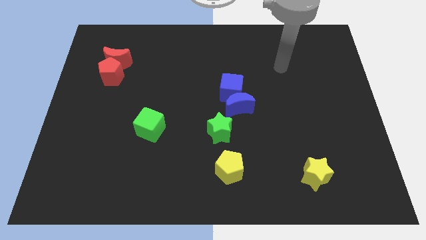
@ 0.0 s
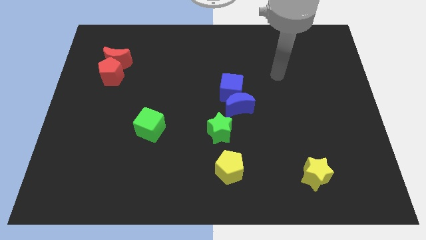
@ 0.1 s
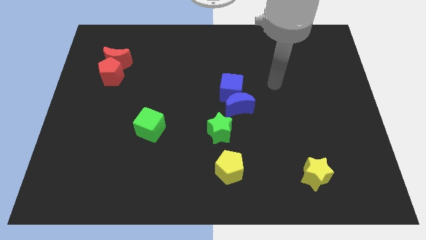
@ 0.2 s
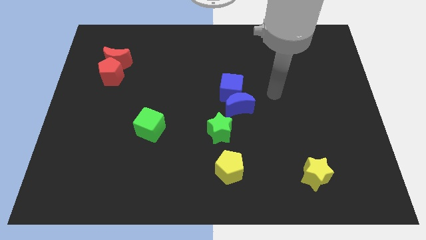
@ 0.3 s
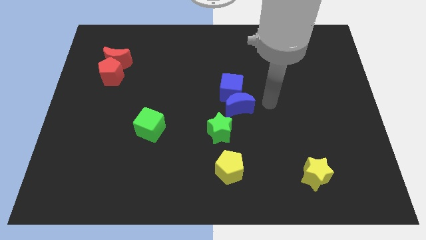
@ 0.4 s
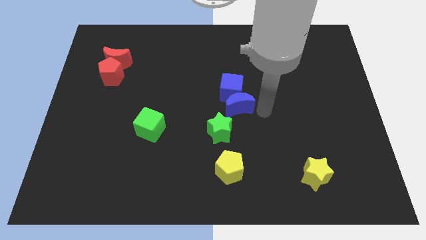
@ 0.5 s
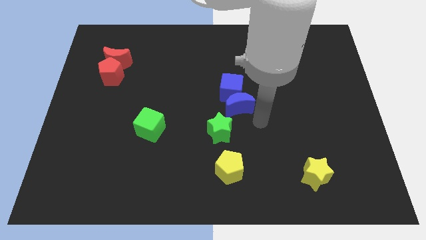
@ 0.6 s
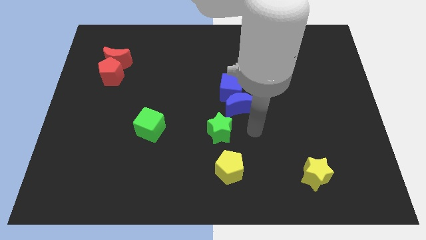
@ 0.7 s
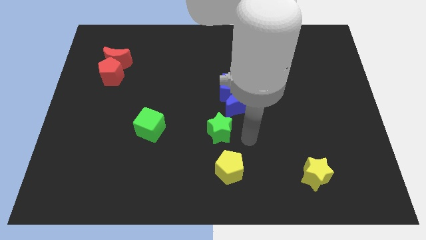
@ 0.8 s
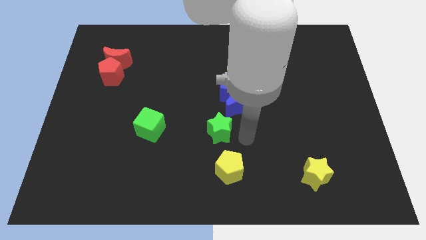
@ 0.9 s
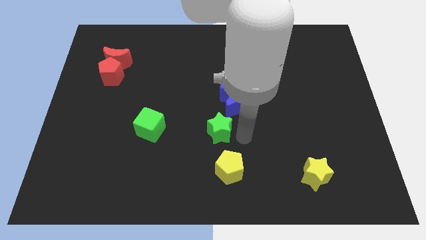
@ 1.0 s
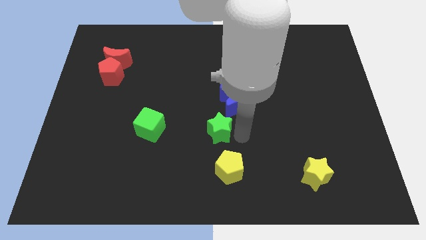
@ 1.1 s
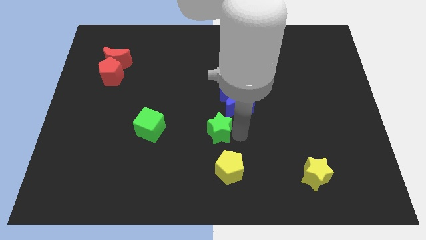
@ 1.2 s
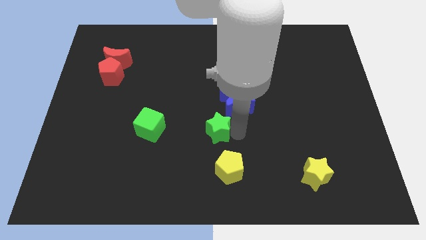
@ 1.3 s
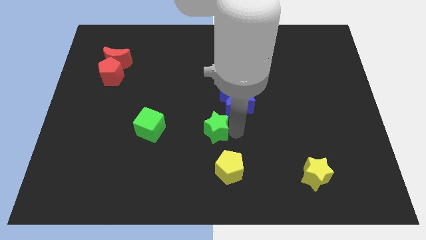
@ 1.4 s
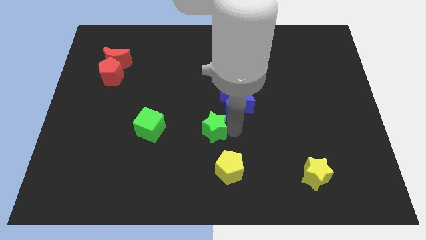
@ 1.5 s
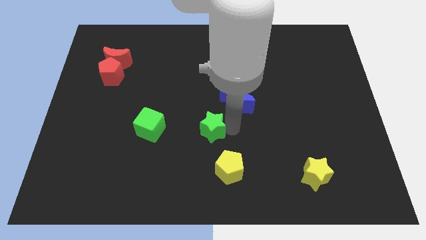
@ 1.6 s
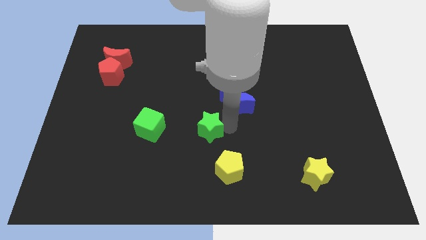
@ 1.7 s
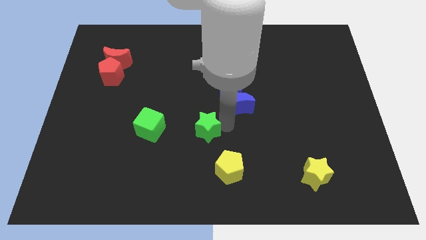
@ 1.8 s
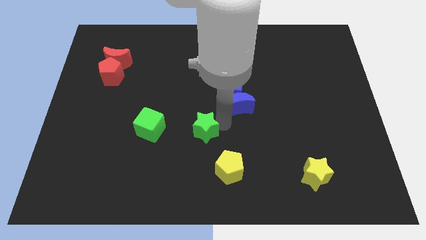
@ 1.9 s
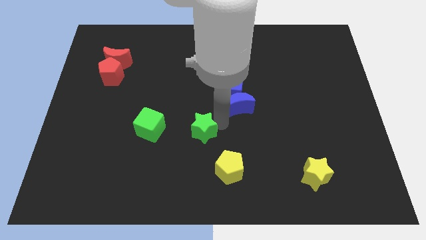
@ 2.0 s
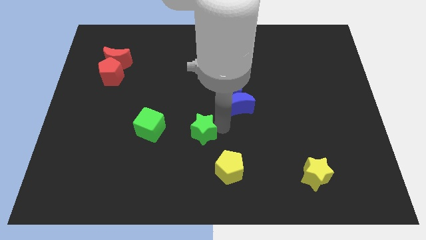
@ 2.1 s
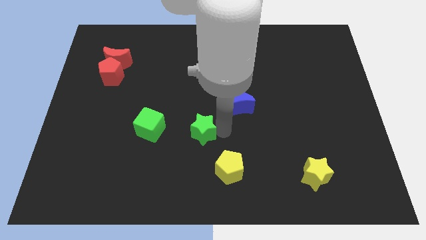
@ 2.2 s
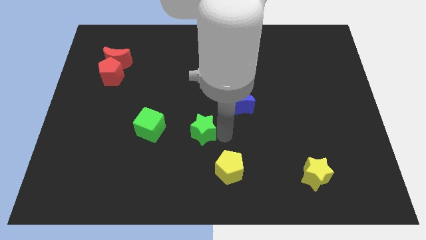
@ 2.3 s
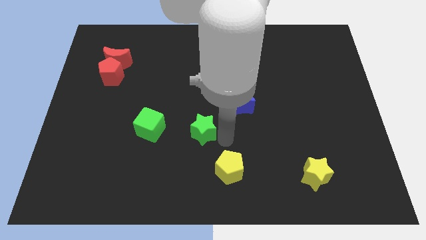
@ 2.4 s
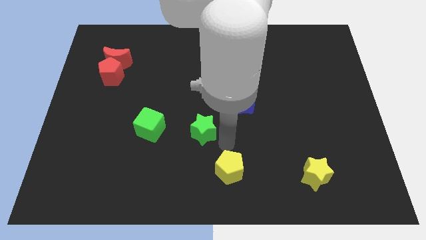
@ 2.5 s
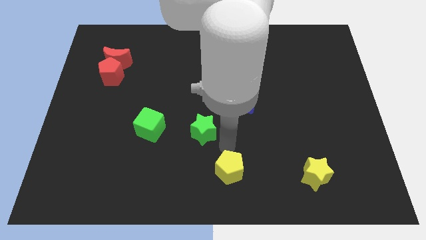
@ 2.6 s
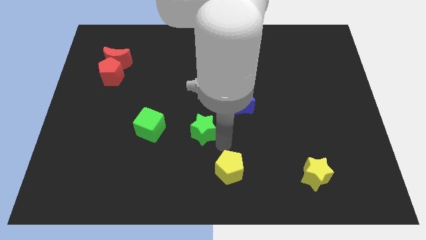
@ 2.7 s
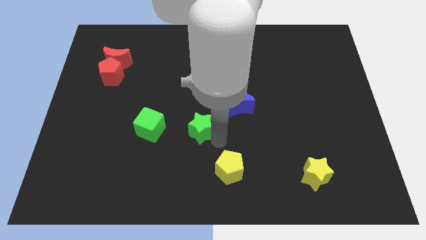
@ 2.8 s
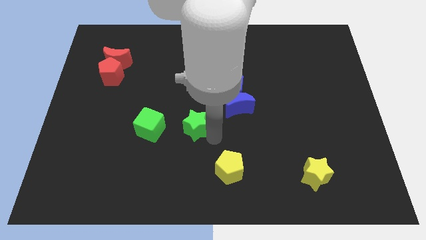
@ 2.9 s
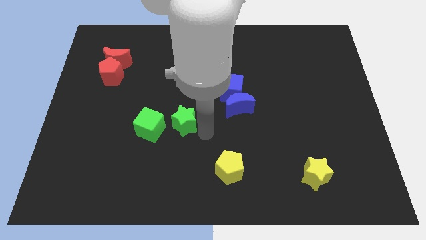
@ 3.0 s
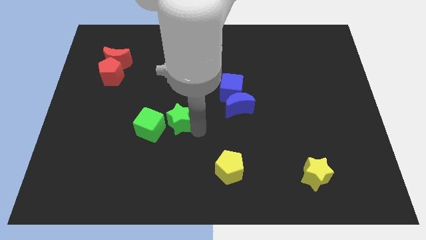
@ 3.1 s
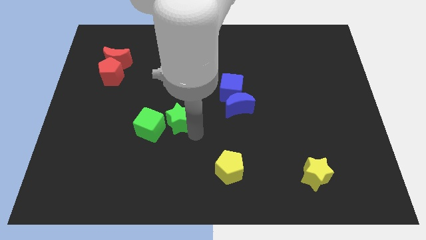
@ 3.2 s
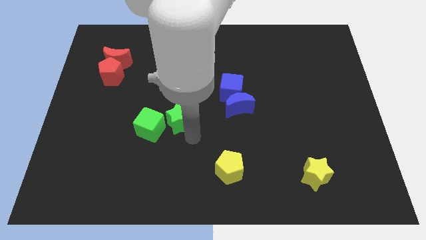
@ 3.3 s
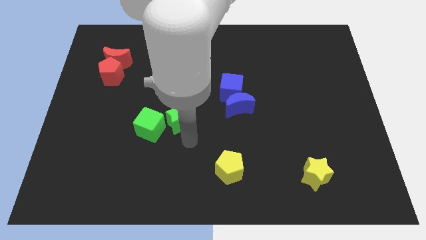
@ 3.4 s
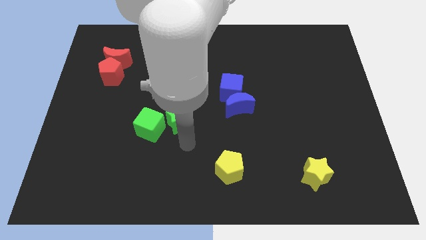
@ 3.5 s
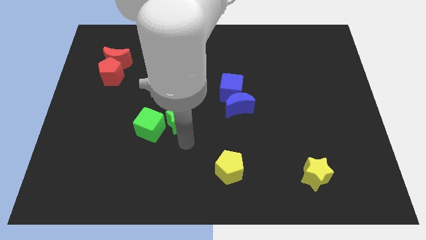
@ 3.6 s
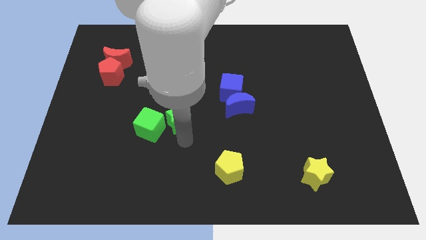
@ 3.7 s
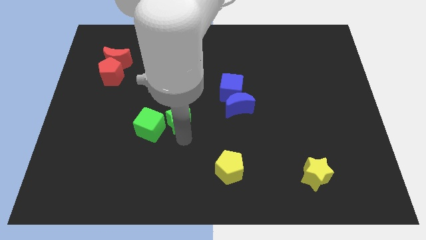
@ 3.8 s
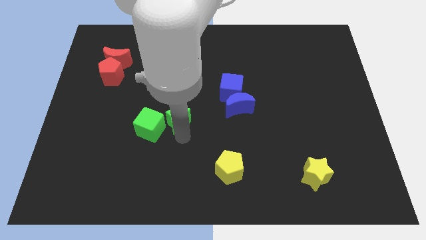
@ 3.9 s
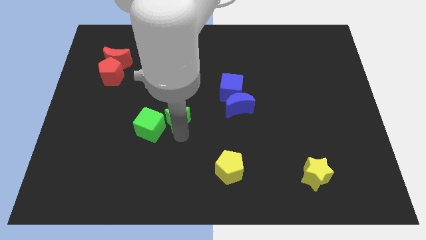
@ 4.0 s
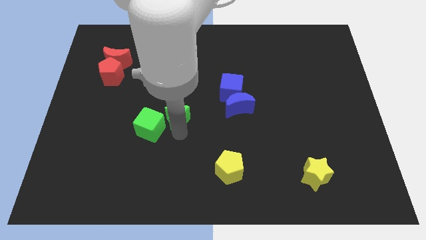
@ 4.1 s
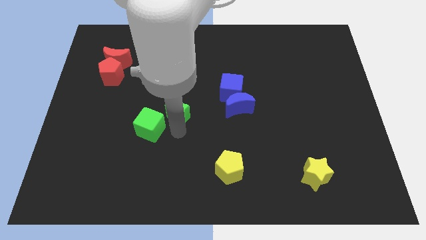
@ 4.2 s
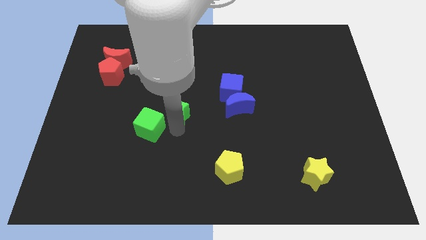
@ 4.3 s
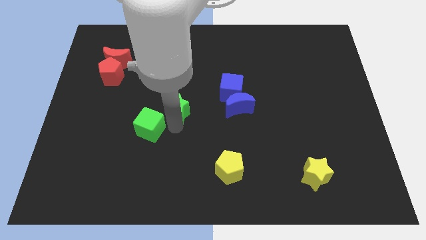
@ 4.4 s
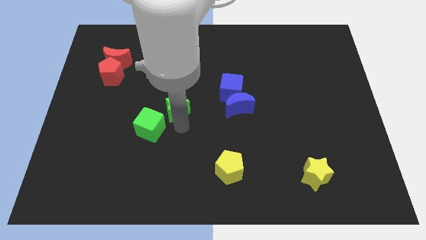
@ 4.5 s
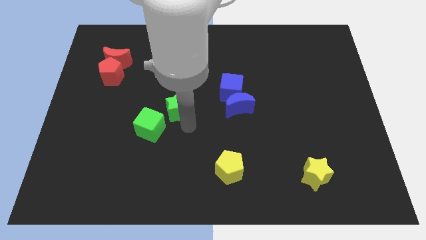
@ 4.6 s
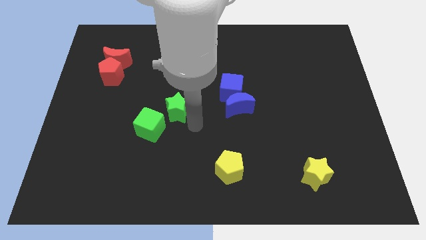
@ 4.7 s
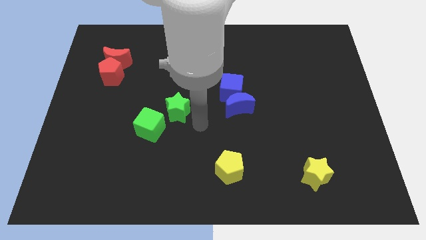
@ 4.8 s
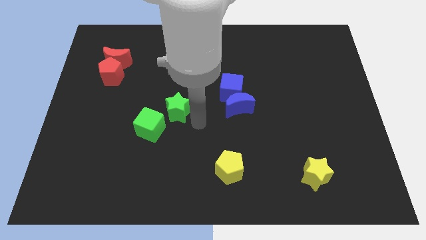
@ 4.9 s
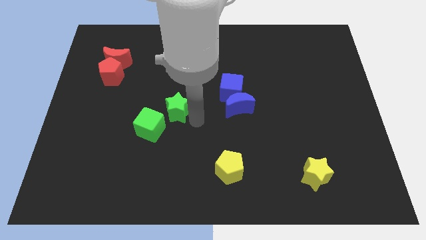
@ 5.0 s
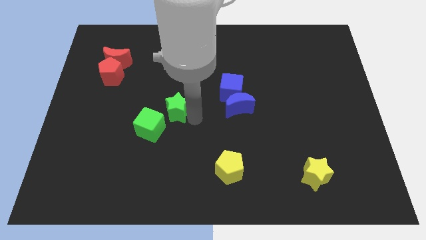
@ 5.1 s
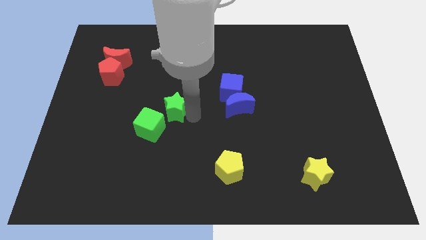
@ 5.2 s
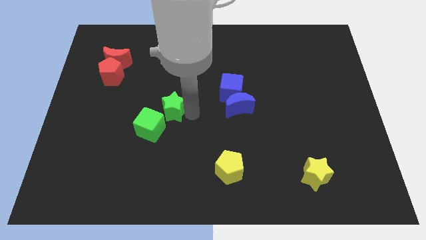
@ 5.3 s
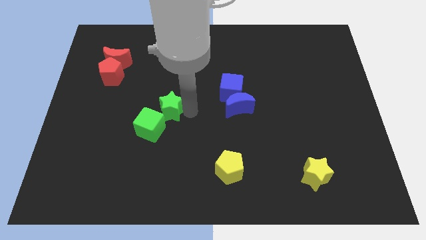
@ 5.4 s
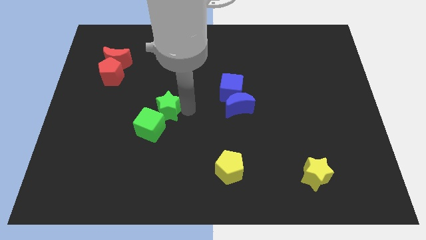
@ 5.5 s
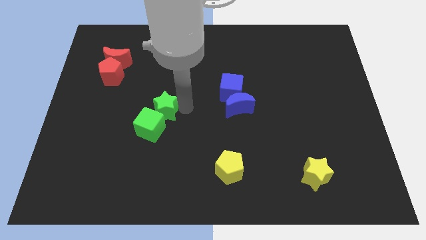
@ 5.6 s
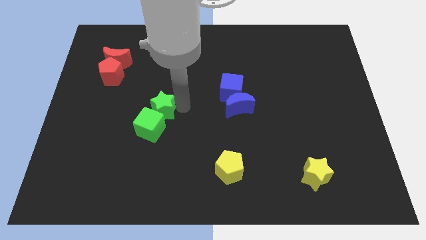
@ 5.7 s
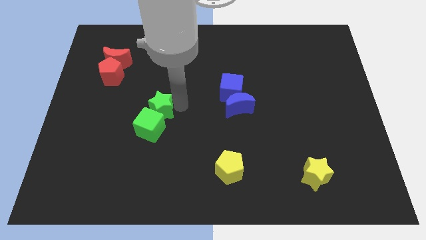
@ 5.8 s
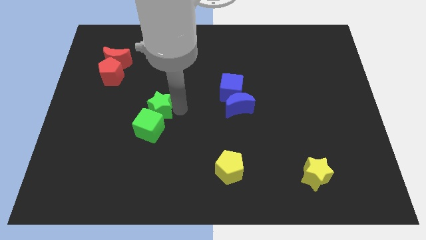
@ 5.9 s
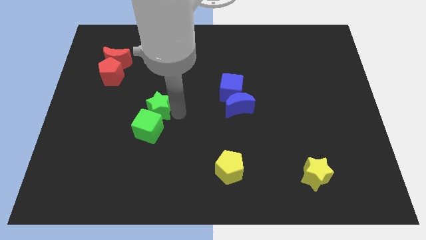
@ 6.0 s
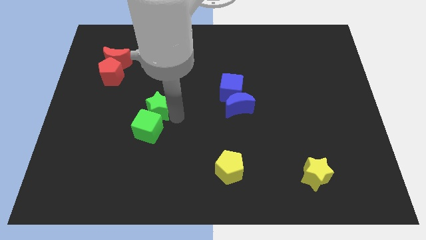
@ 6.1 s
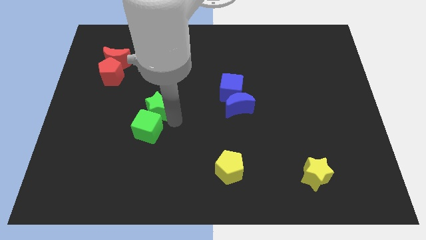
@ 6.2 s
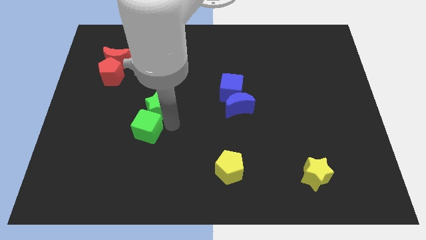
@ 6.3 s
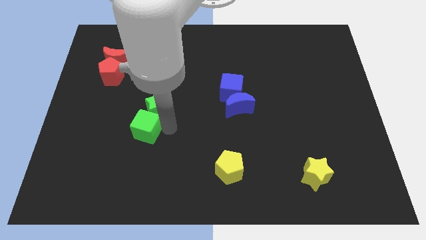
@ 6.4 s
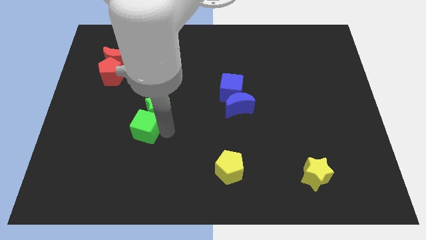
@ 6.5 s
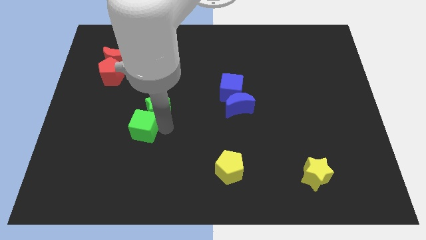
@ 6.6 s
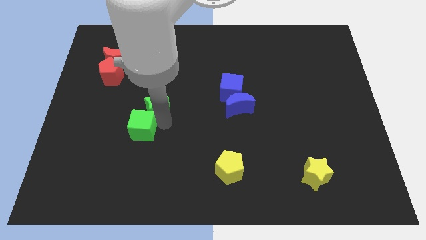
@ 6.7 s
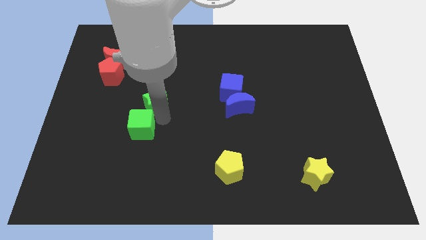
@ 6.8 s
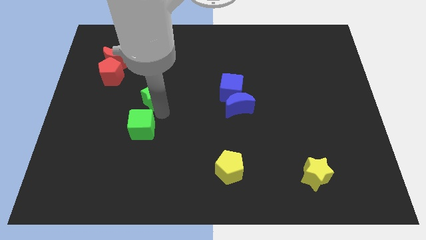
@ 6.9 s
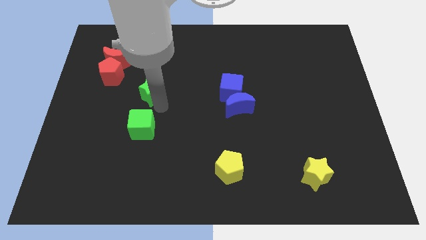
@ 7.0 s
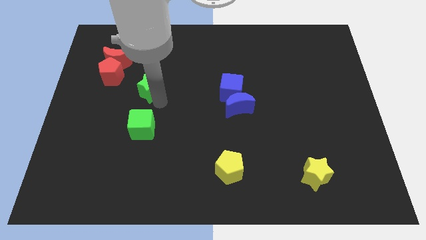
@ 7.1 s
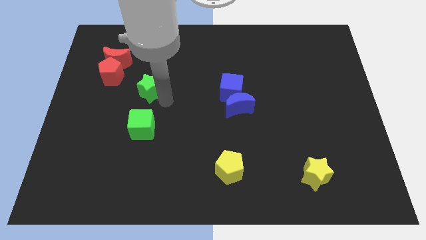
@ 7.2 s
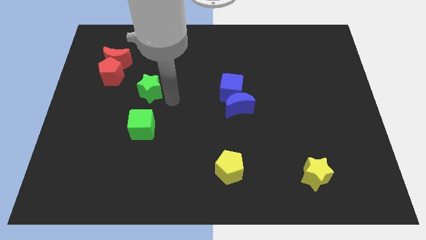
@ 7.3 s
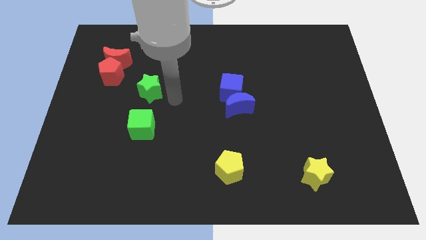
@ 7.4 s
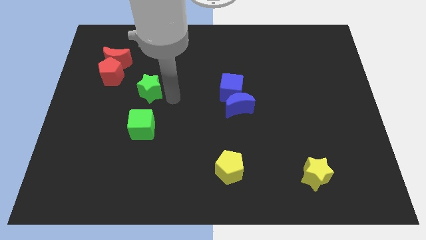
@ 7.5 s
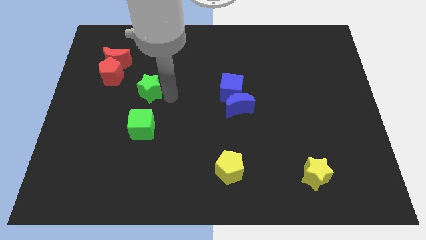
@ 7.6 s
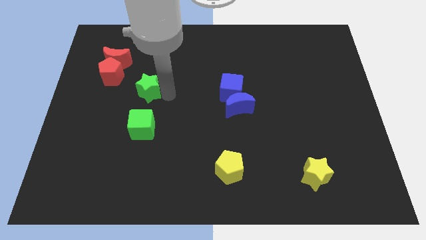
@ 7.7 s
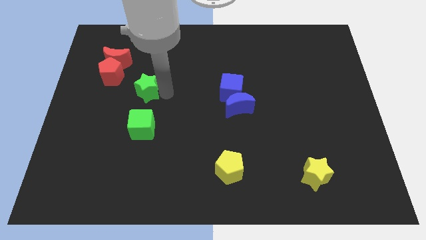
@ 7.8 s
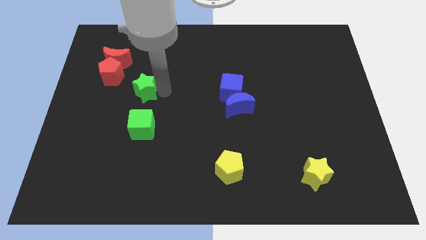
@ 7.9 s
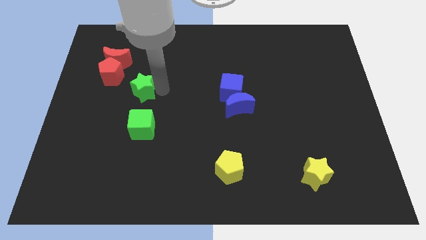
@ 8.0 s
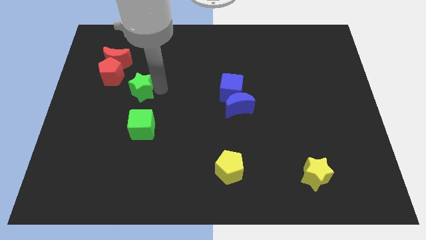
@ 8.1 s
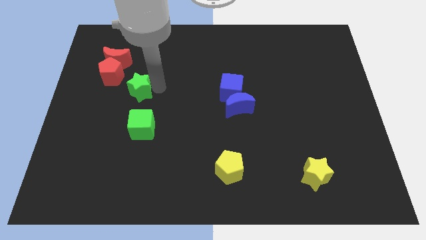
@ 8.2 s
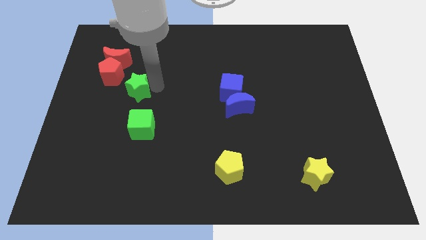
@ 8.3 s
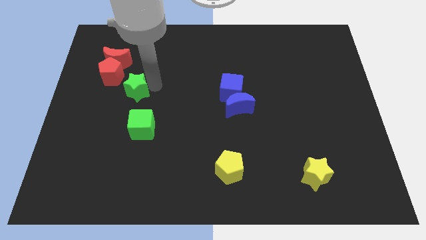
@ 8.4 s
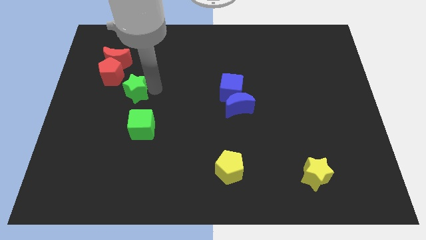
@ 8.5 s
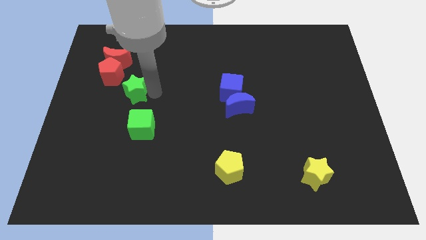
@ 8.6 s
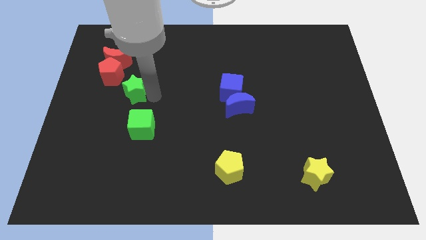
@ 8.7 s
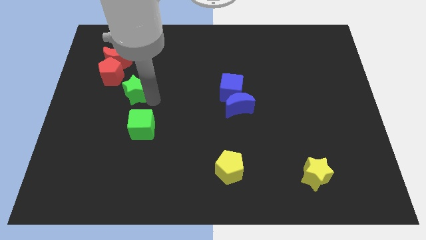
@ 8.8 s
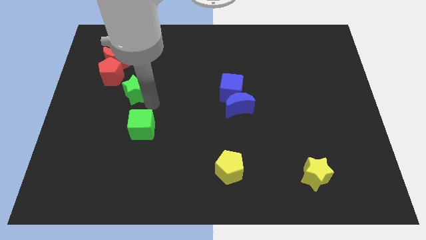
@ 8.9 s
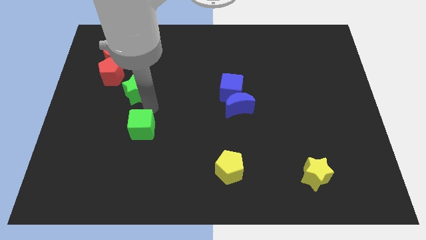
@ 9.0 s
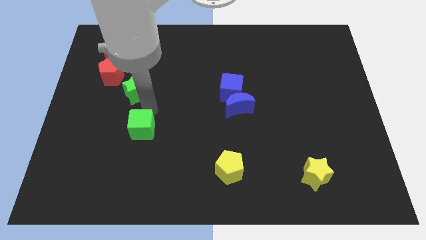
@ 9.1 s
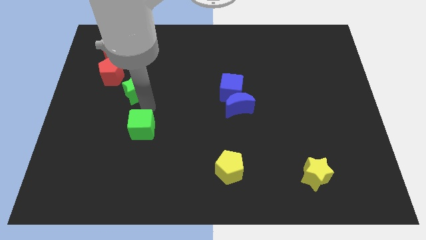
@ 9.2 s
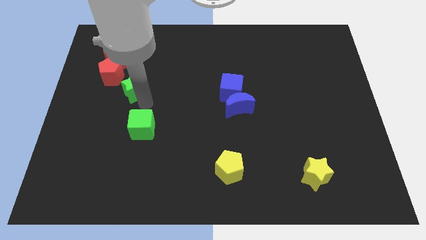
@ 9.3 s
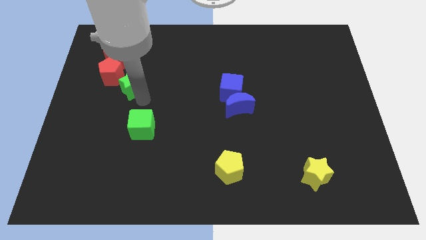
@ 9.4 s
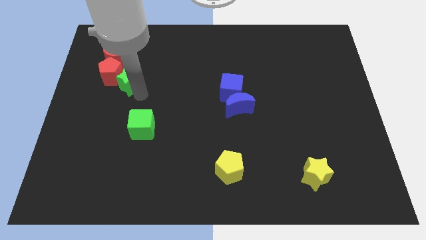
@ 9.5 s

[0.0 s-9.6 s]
push the green star towards the red pentagon
